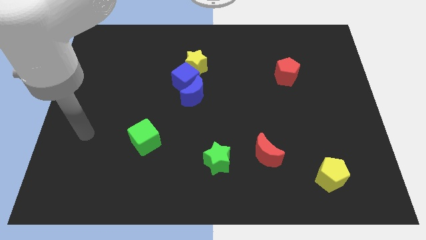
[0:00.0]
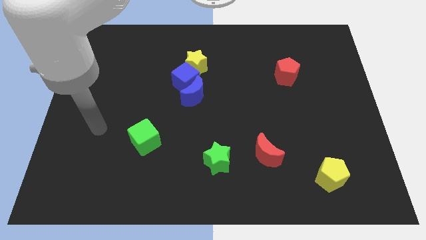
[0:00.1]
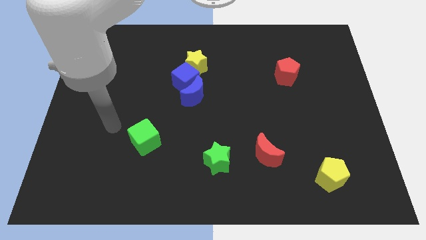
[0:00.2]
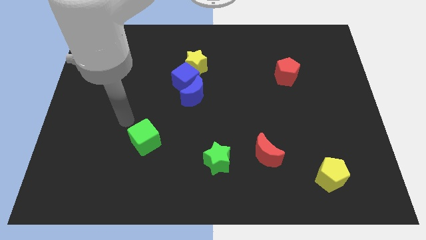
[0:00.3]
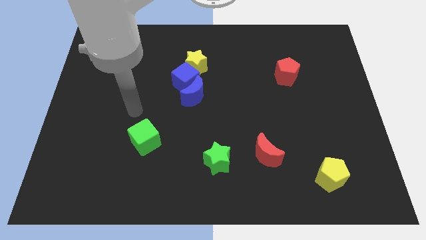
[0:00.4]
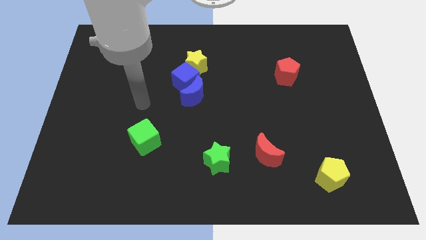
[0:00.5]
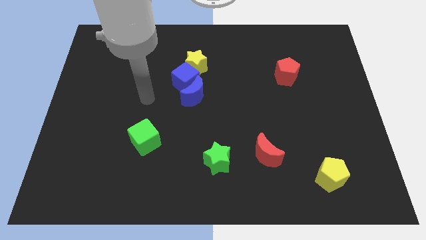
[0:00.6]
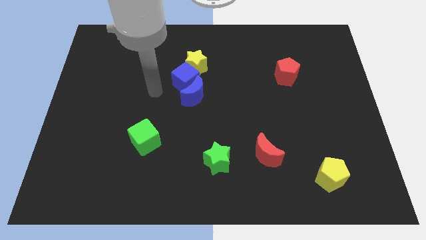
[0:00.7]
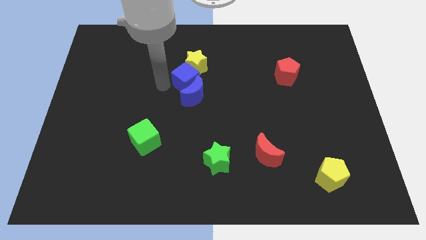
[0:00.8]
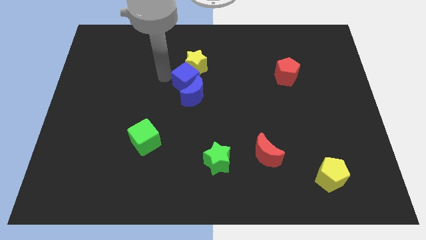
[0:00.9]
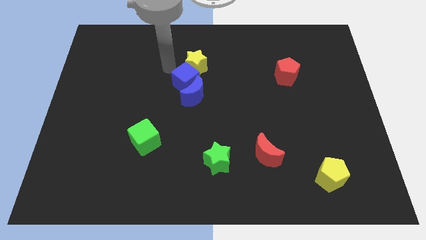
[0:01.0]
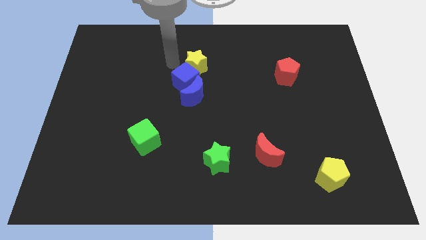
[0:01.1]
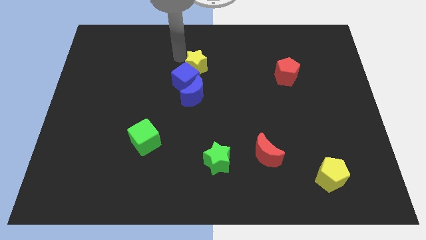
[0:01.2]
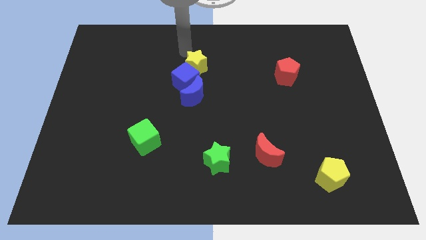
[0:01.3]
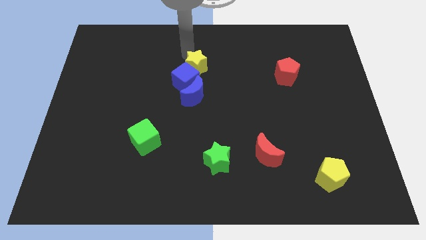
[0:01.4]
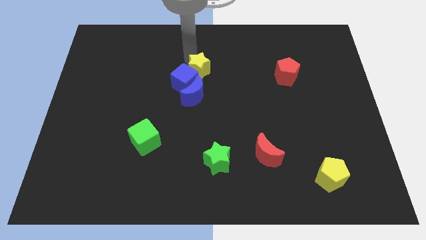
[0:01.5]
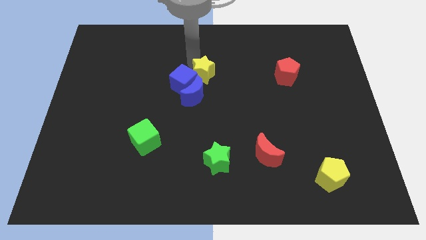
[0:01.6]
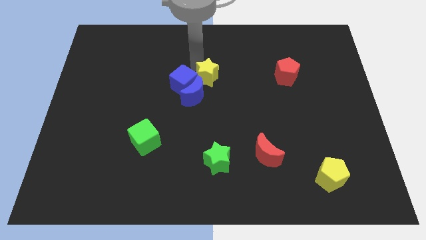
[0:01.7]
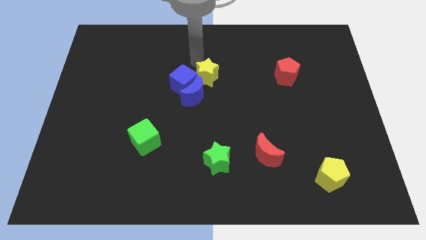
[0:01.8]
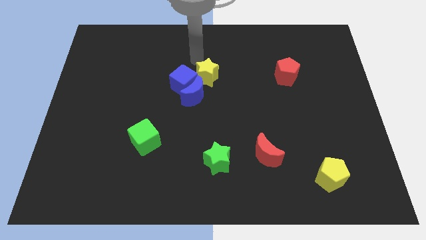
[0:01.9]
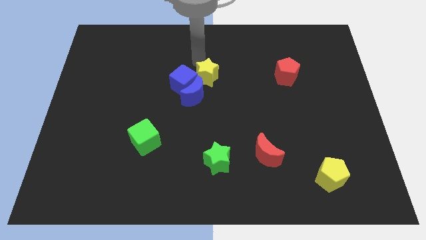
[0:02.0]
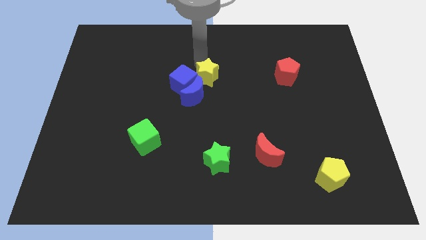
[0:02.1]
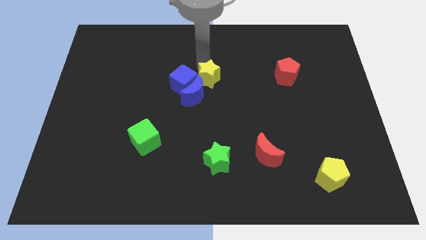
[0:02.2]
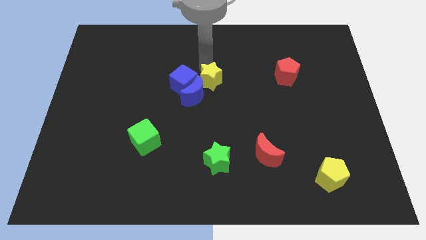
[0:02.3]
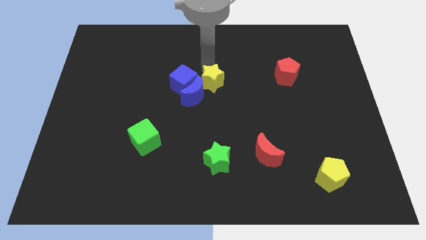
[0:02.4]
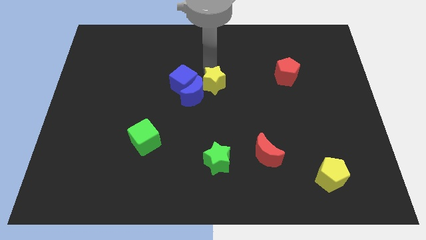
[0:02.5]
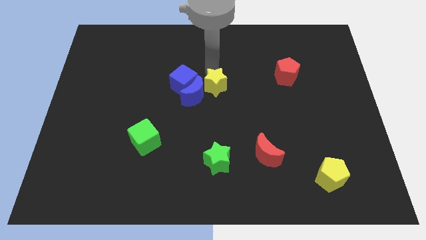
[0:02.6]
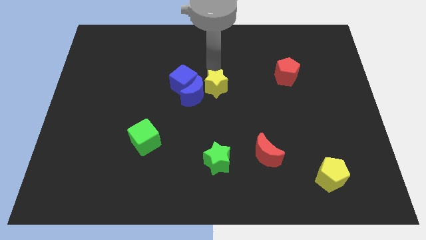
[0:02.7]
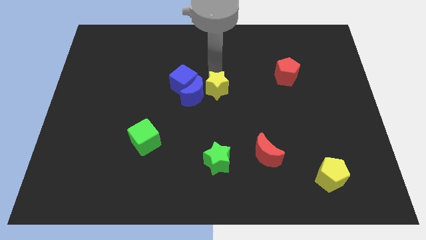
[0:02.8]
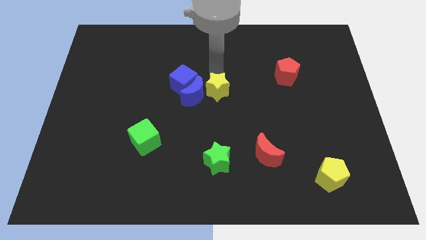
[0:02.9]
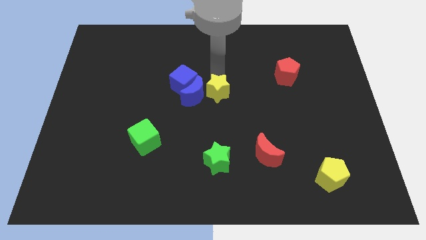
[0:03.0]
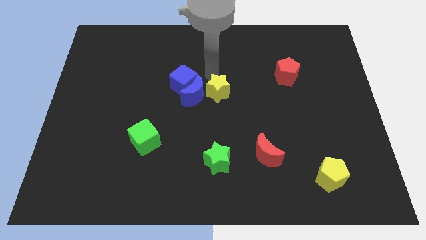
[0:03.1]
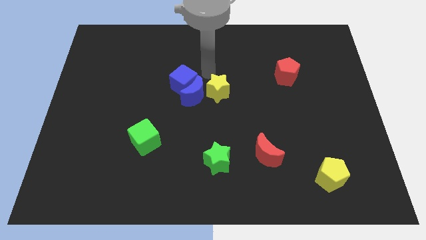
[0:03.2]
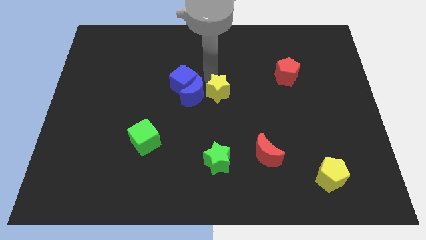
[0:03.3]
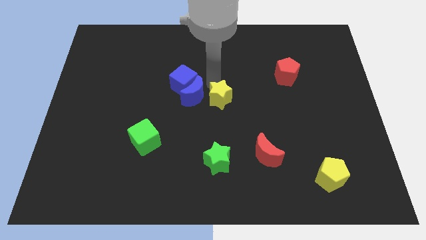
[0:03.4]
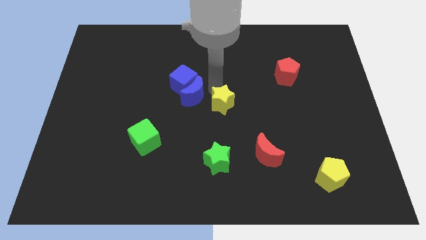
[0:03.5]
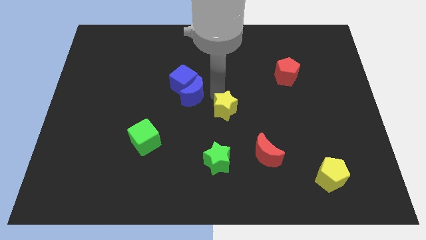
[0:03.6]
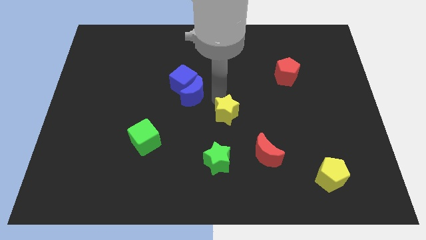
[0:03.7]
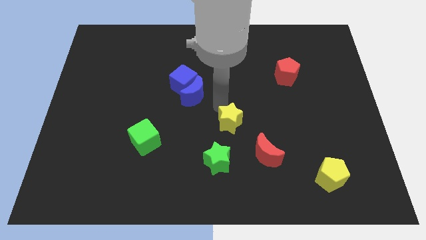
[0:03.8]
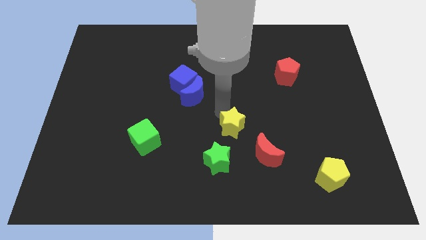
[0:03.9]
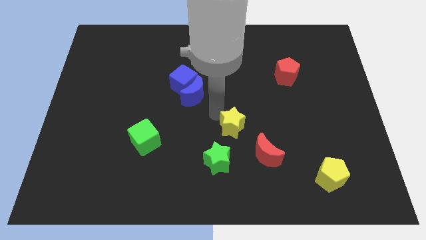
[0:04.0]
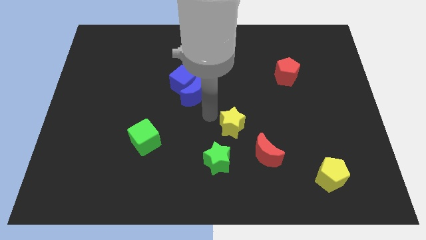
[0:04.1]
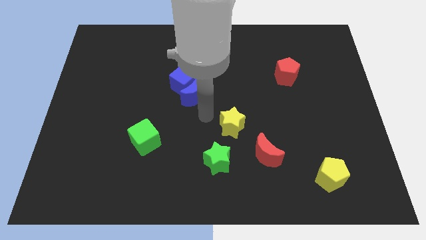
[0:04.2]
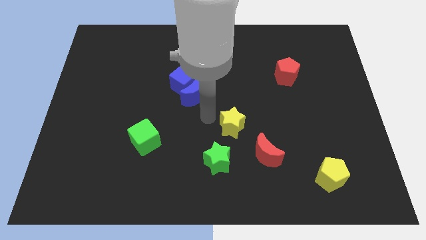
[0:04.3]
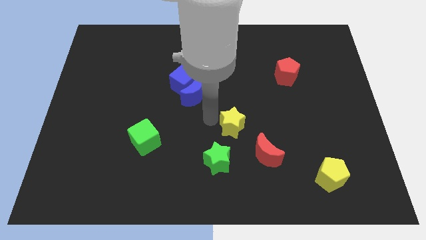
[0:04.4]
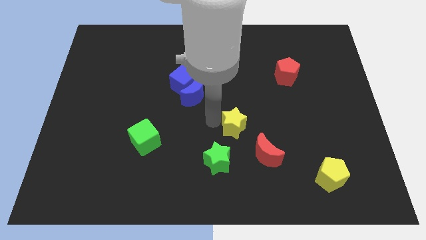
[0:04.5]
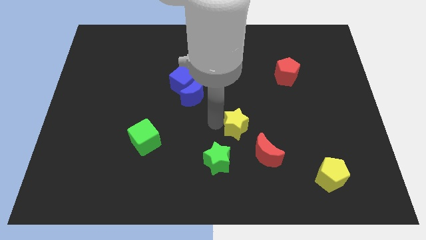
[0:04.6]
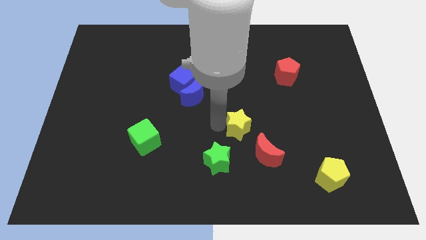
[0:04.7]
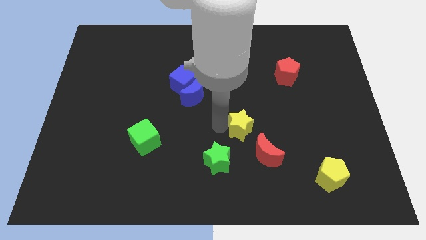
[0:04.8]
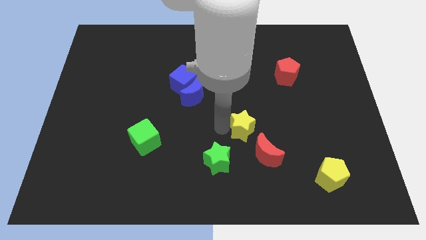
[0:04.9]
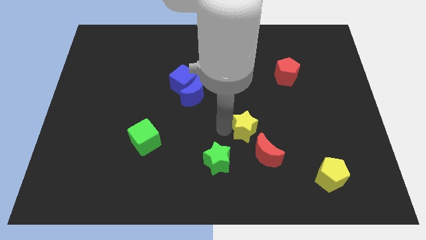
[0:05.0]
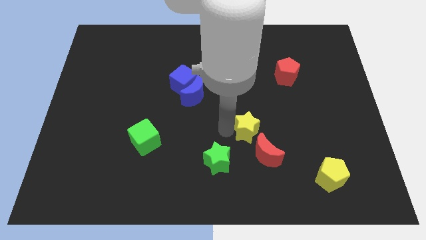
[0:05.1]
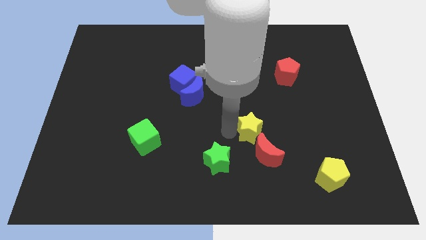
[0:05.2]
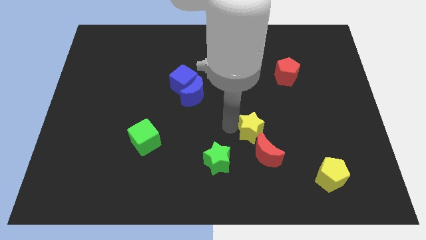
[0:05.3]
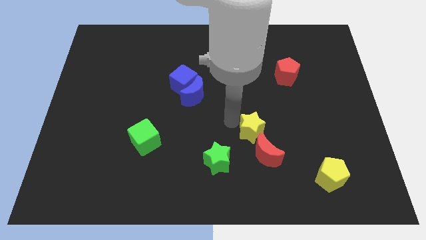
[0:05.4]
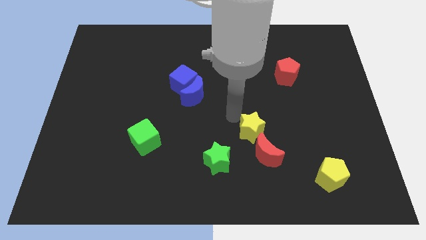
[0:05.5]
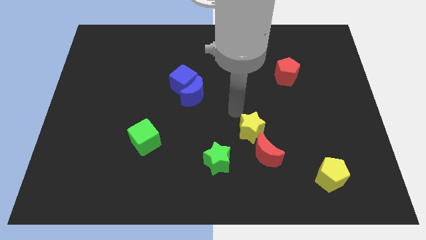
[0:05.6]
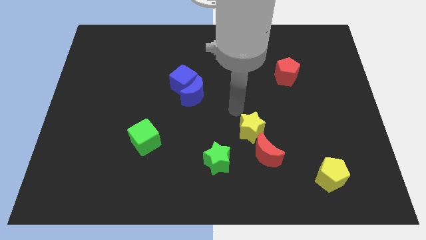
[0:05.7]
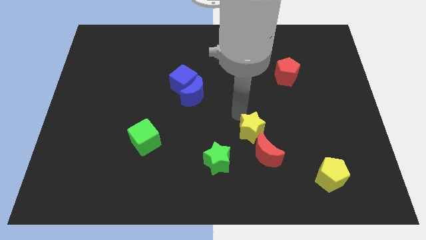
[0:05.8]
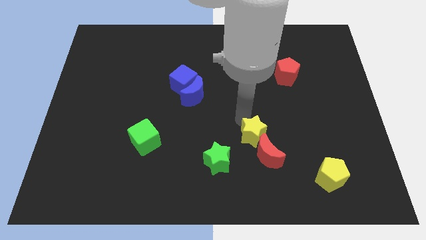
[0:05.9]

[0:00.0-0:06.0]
slide the yellow star next to the red moon

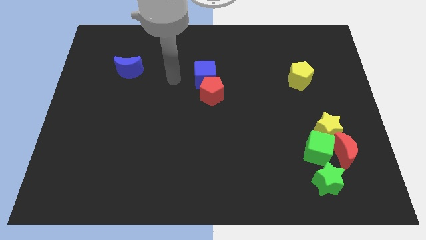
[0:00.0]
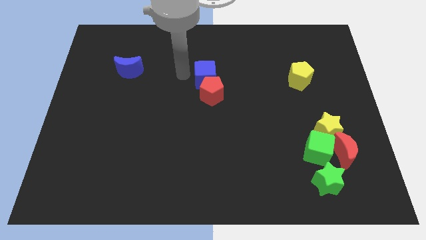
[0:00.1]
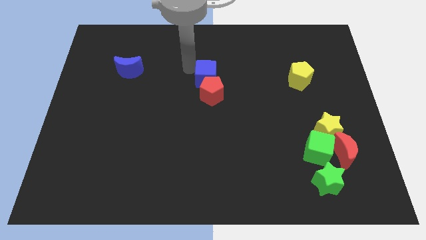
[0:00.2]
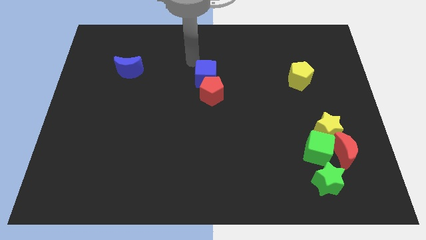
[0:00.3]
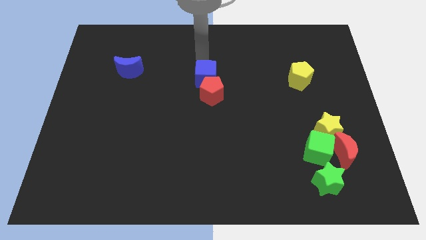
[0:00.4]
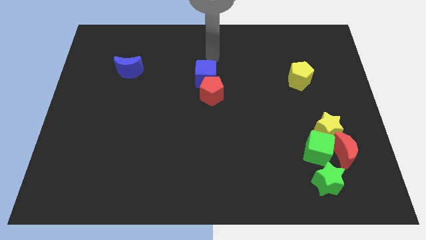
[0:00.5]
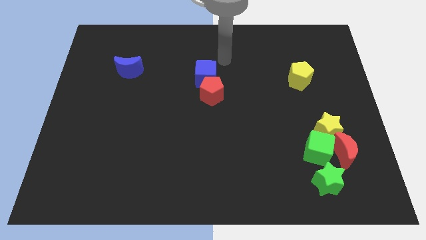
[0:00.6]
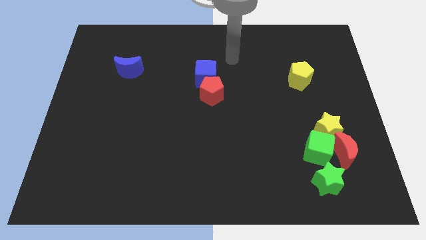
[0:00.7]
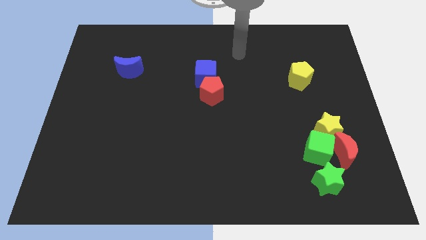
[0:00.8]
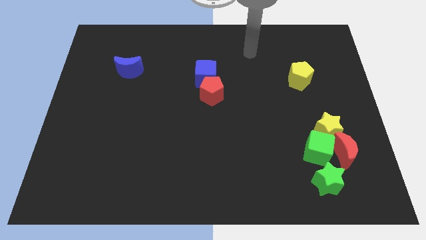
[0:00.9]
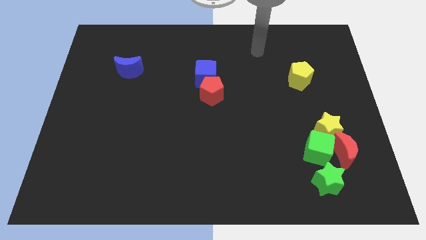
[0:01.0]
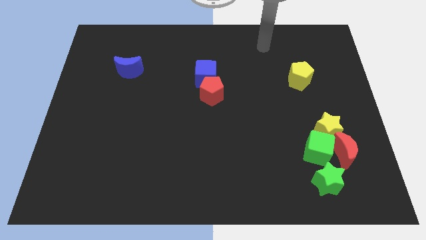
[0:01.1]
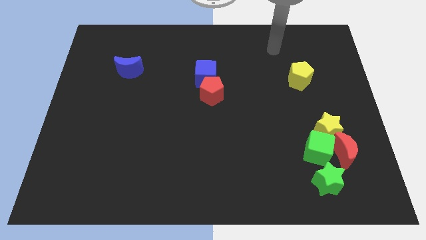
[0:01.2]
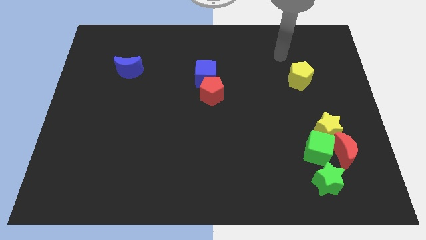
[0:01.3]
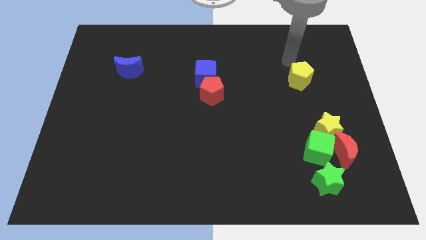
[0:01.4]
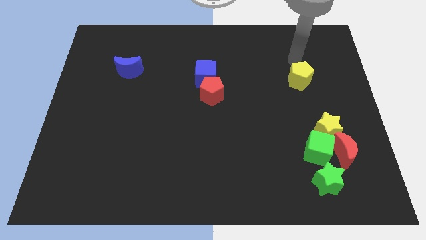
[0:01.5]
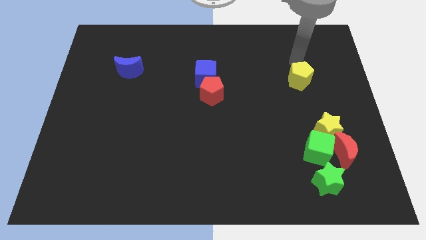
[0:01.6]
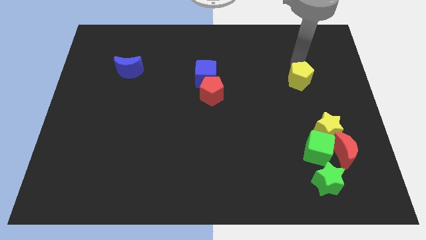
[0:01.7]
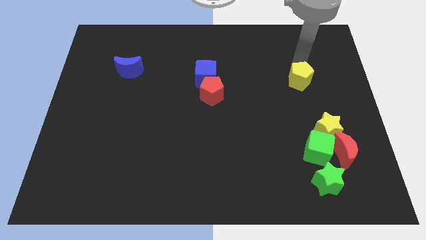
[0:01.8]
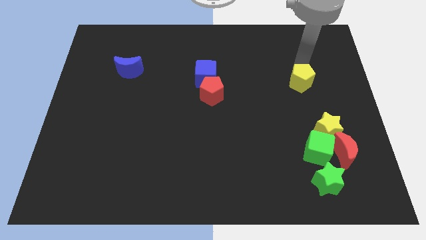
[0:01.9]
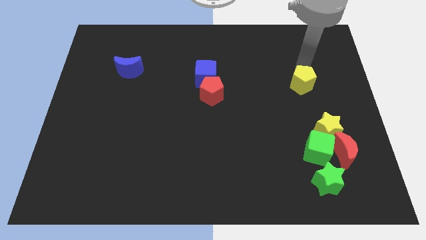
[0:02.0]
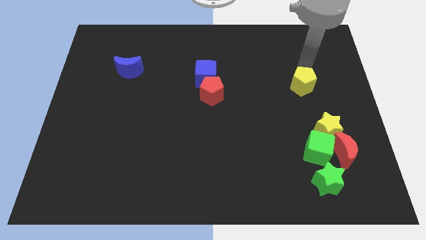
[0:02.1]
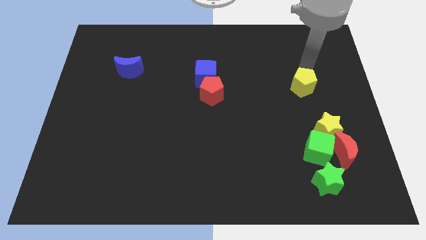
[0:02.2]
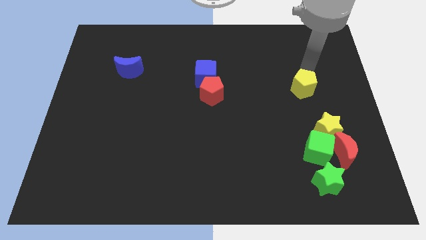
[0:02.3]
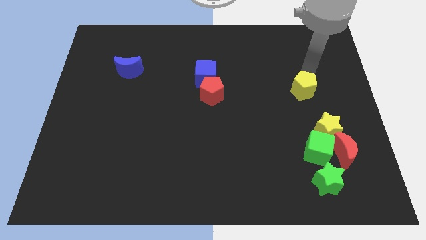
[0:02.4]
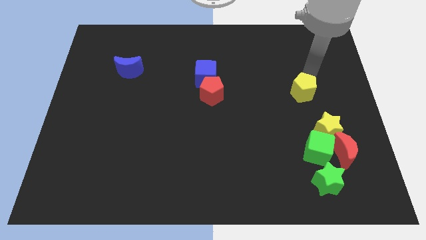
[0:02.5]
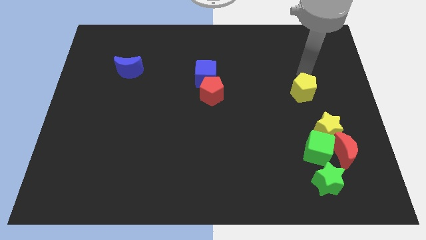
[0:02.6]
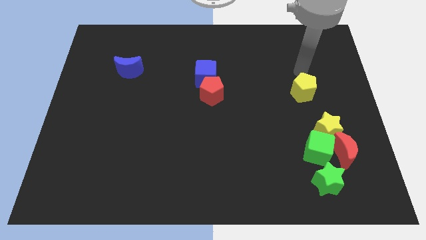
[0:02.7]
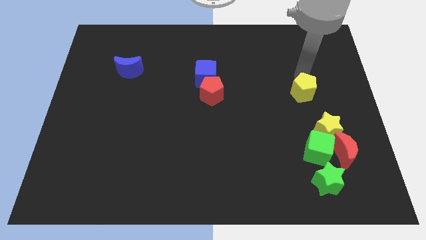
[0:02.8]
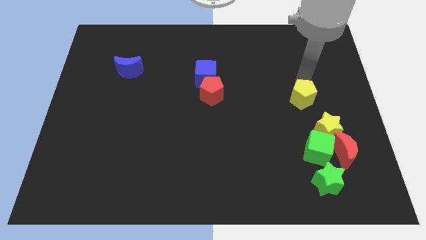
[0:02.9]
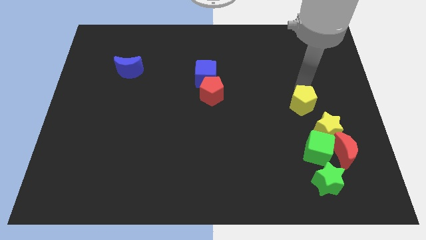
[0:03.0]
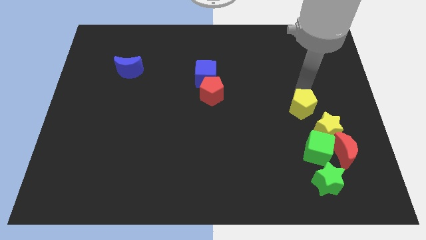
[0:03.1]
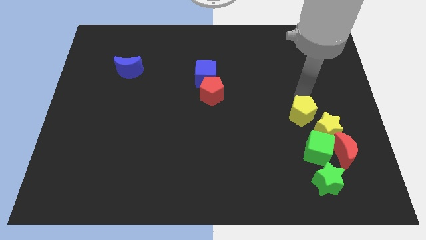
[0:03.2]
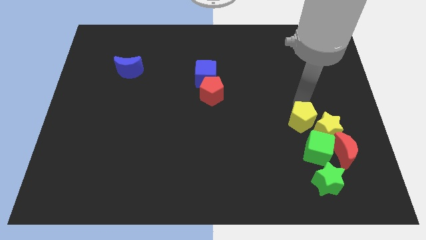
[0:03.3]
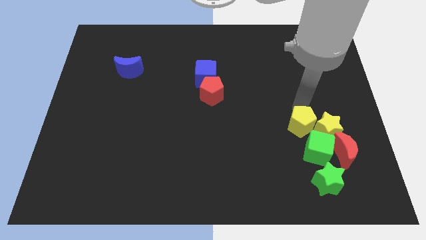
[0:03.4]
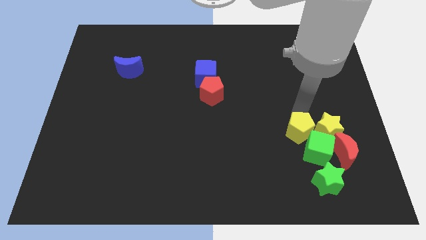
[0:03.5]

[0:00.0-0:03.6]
move the yellow pentagon towards the green cube
